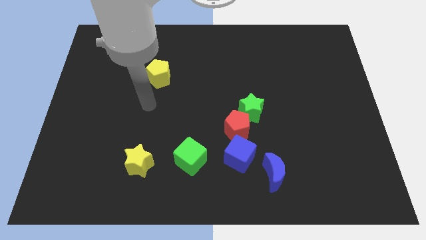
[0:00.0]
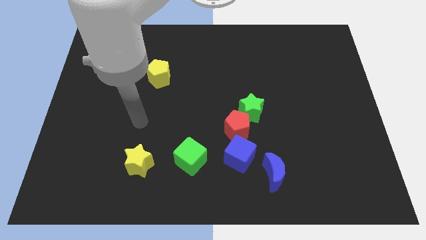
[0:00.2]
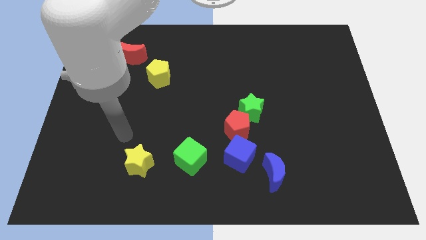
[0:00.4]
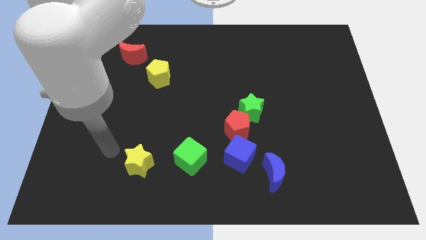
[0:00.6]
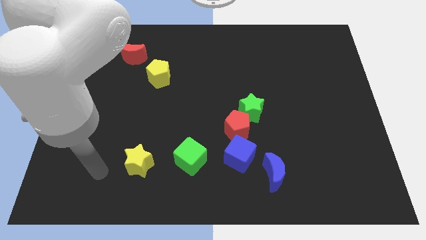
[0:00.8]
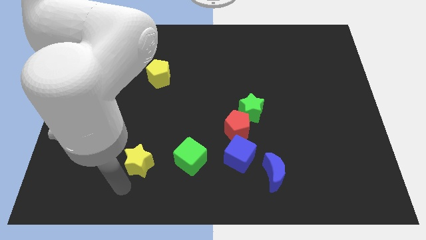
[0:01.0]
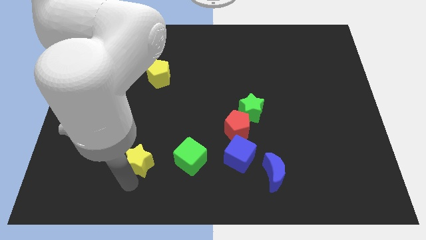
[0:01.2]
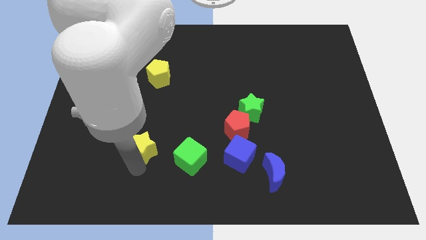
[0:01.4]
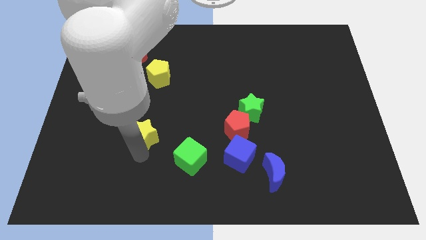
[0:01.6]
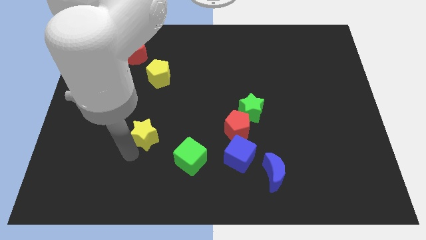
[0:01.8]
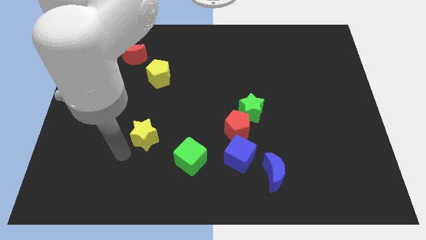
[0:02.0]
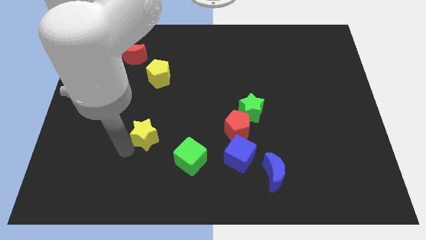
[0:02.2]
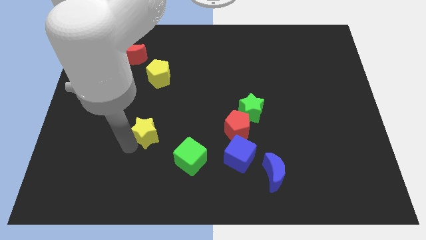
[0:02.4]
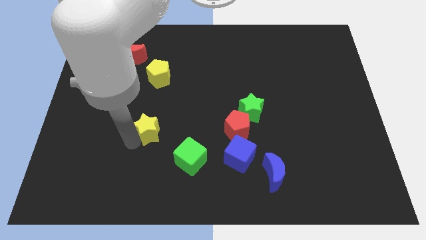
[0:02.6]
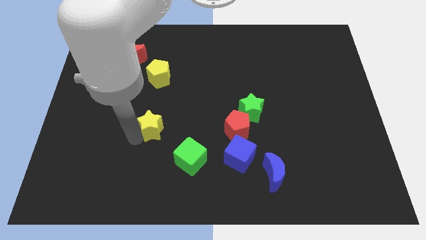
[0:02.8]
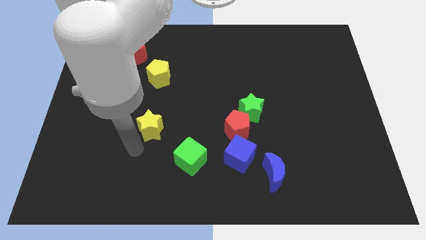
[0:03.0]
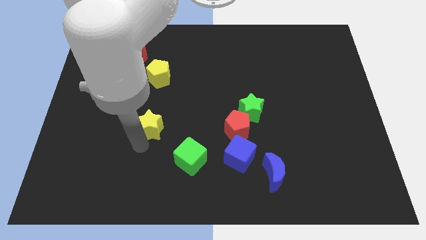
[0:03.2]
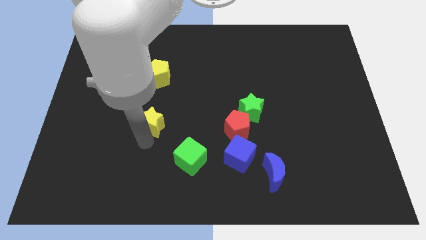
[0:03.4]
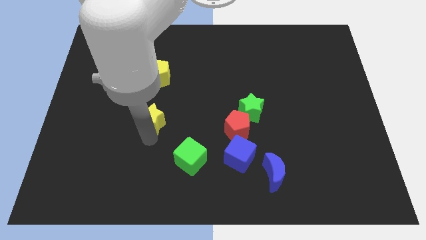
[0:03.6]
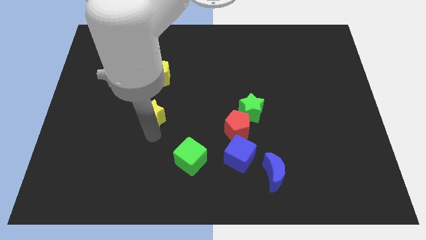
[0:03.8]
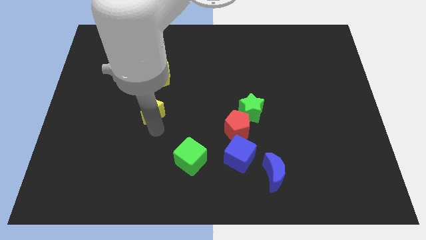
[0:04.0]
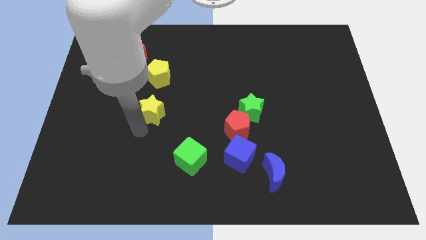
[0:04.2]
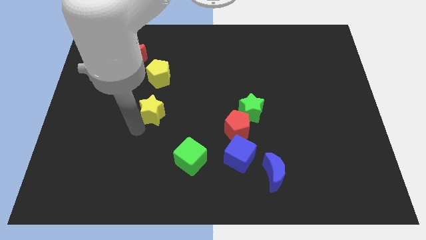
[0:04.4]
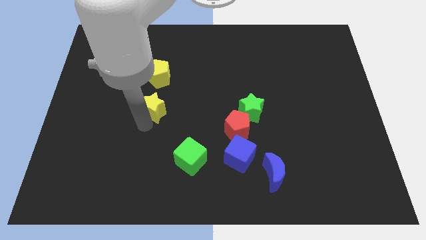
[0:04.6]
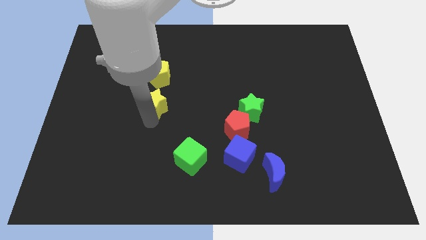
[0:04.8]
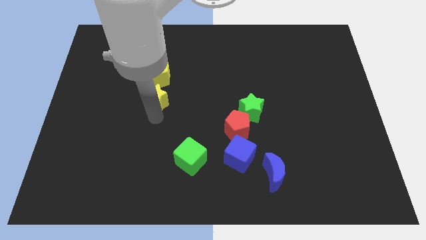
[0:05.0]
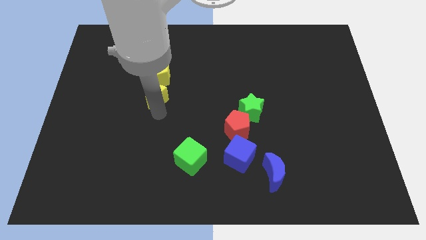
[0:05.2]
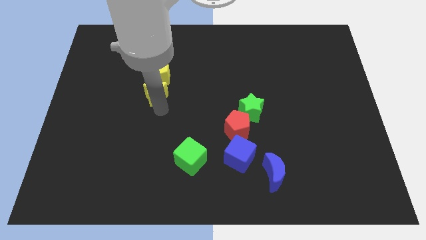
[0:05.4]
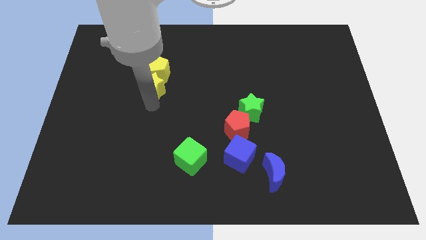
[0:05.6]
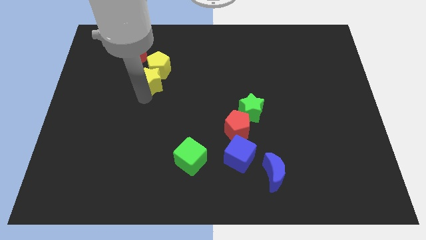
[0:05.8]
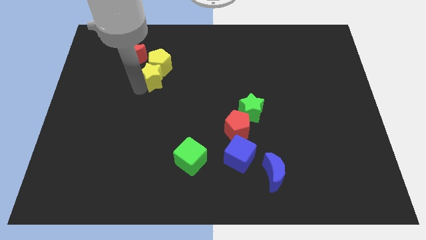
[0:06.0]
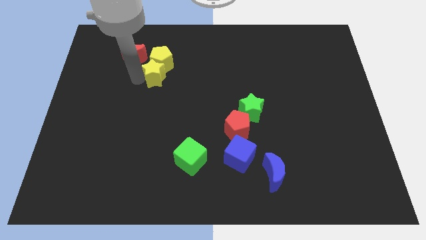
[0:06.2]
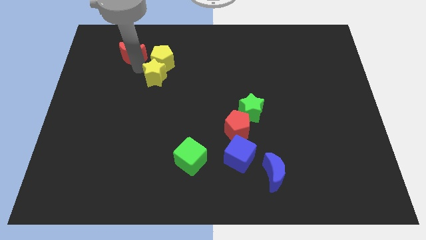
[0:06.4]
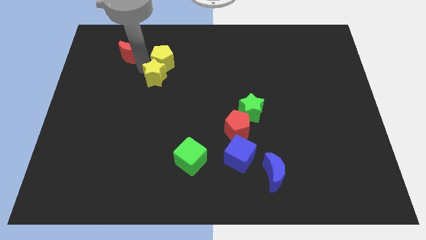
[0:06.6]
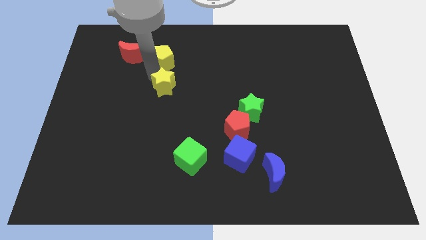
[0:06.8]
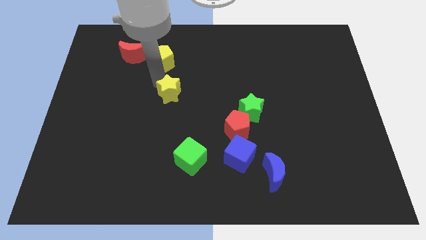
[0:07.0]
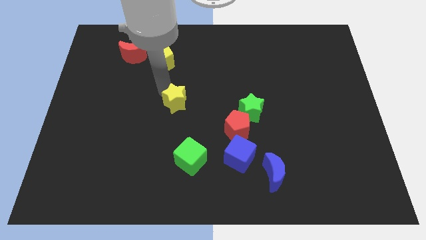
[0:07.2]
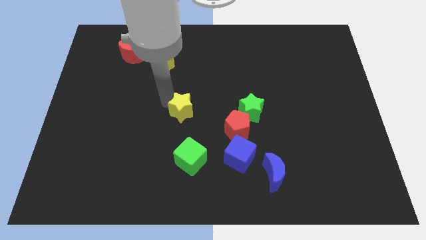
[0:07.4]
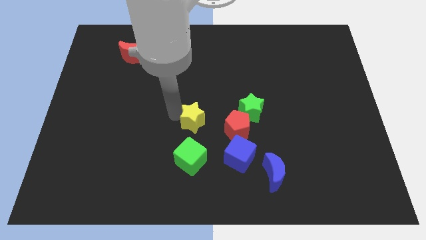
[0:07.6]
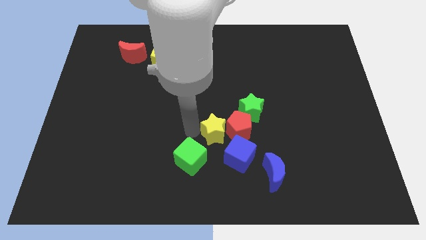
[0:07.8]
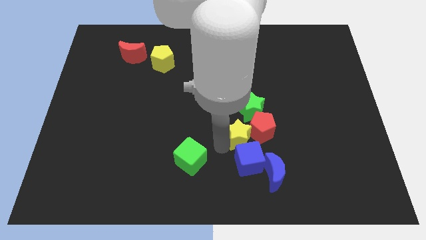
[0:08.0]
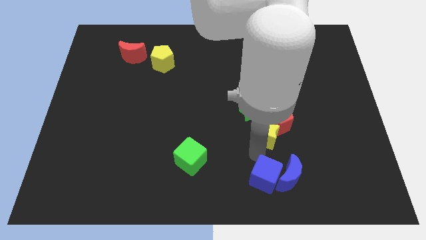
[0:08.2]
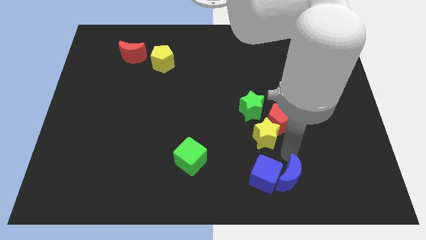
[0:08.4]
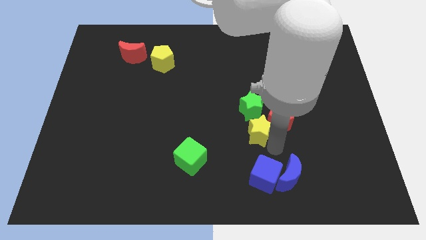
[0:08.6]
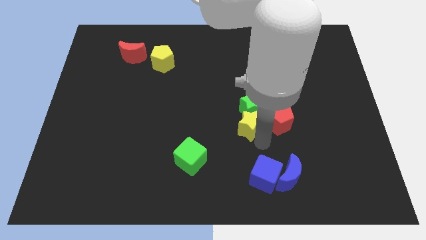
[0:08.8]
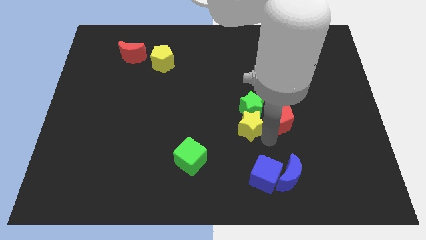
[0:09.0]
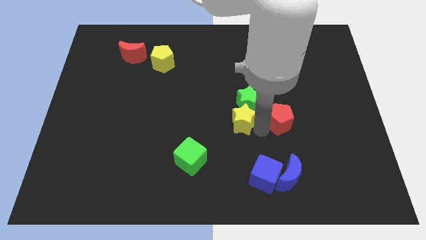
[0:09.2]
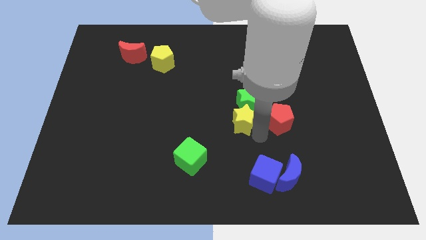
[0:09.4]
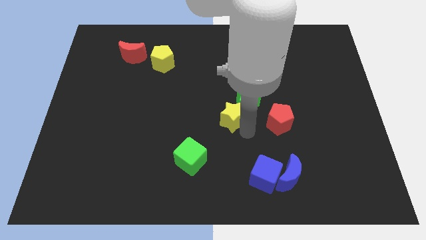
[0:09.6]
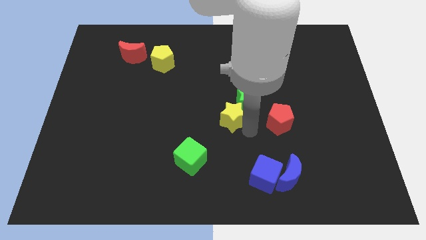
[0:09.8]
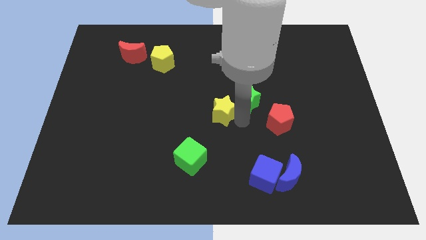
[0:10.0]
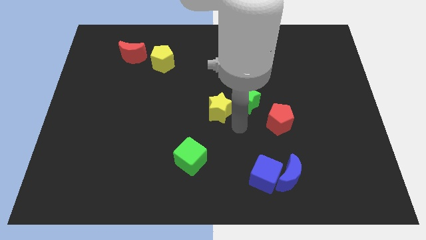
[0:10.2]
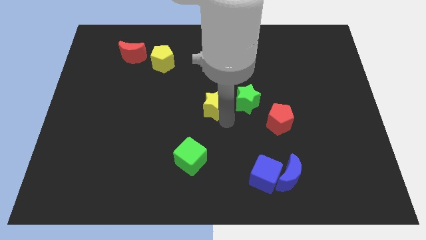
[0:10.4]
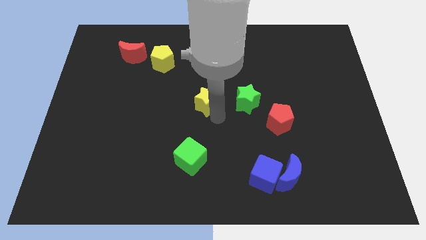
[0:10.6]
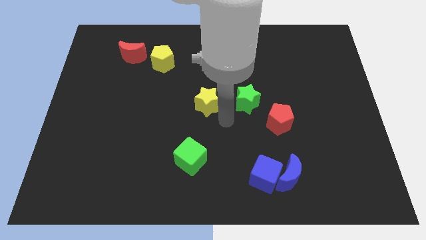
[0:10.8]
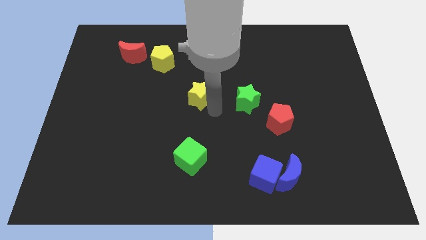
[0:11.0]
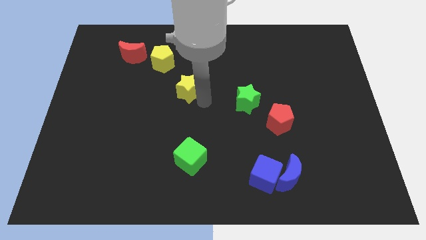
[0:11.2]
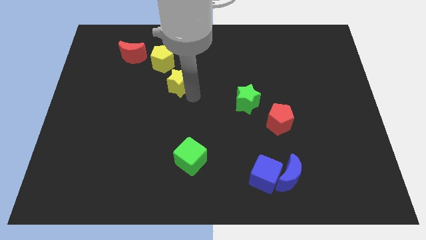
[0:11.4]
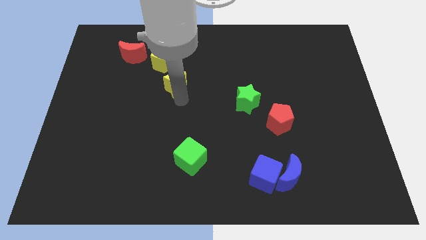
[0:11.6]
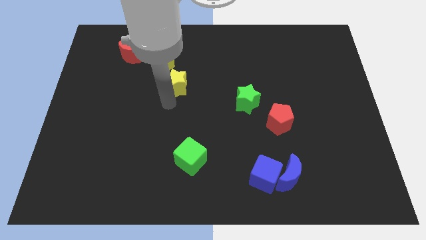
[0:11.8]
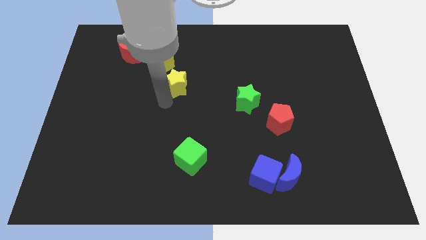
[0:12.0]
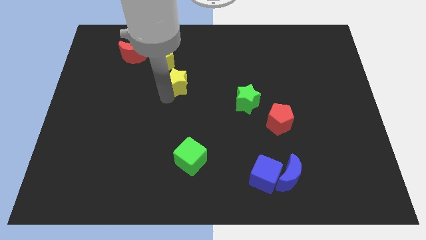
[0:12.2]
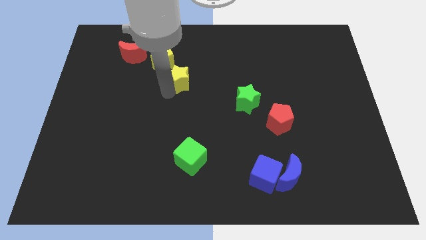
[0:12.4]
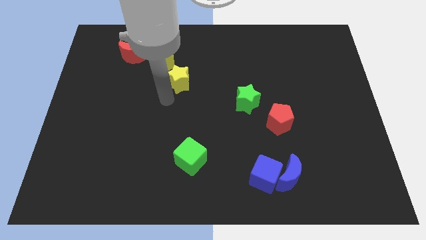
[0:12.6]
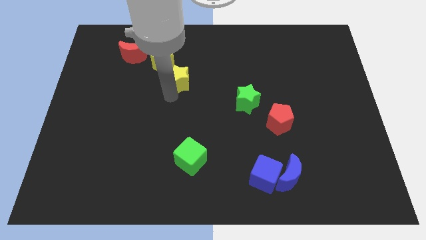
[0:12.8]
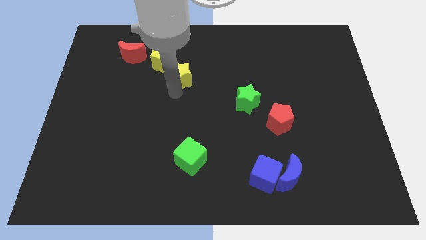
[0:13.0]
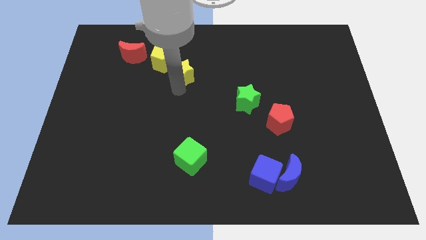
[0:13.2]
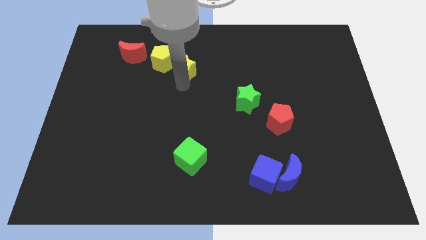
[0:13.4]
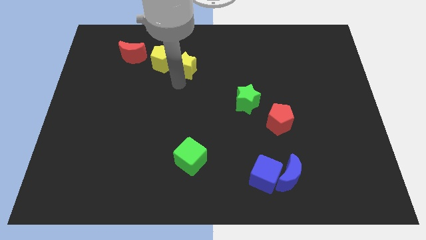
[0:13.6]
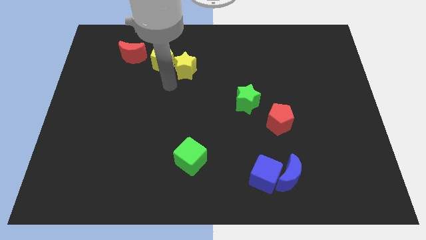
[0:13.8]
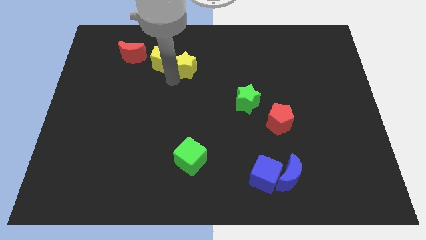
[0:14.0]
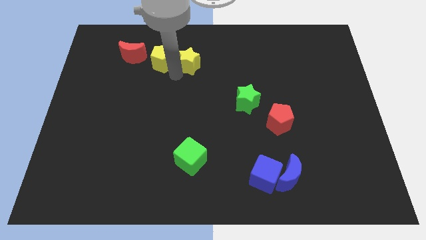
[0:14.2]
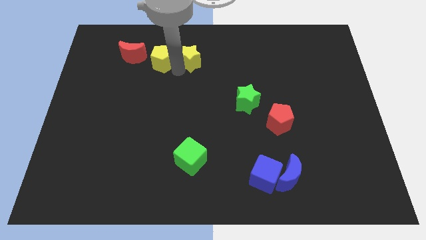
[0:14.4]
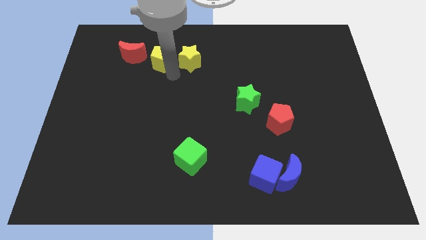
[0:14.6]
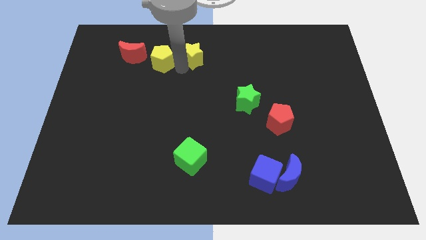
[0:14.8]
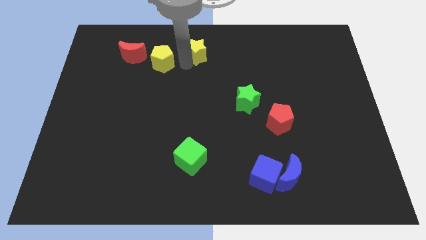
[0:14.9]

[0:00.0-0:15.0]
slide the yellow star to the top
